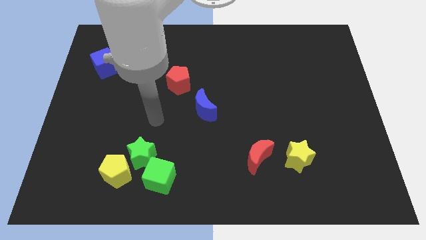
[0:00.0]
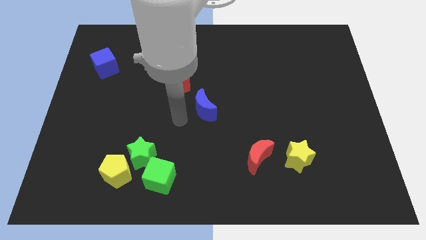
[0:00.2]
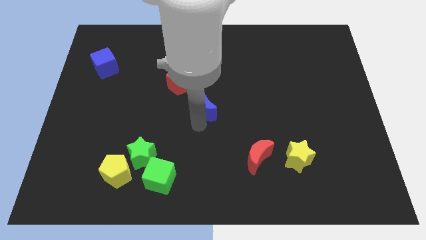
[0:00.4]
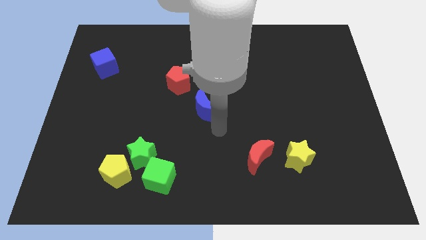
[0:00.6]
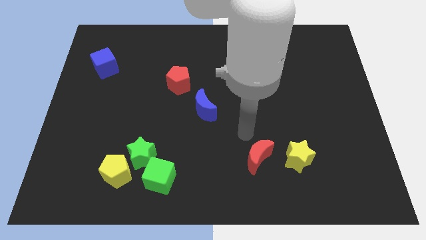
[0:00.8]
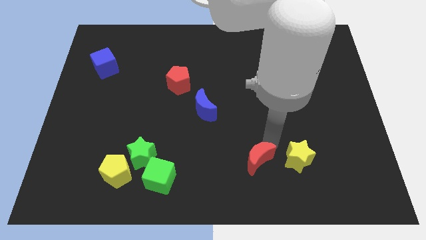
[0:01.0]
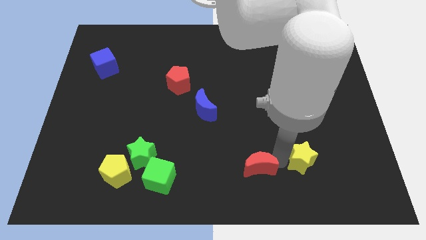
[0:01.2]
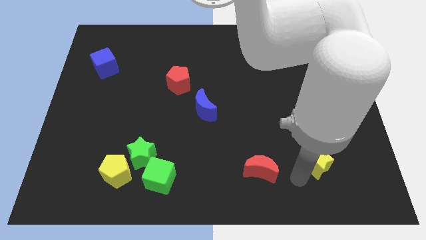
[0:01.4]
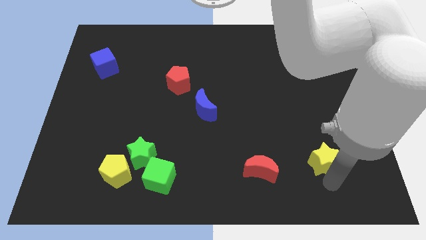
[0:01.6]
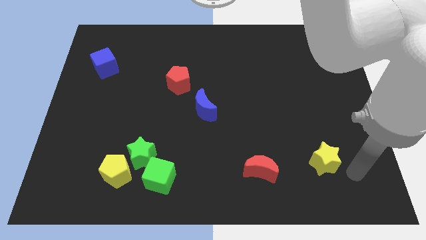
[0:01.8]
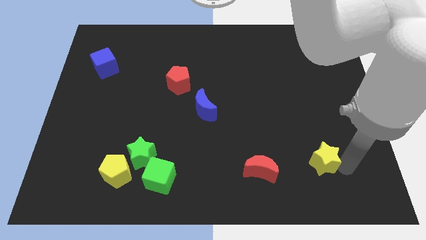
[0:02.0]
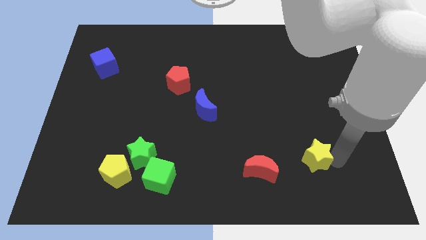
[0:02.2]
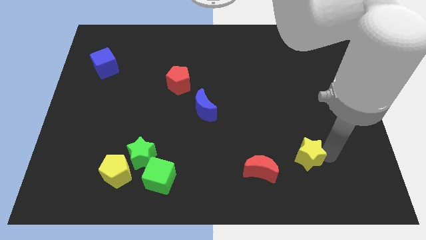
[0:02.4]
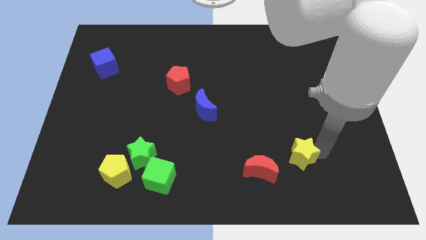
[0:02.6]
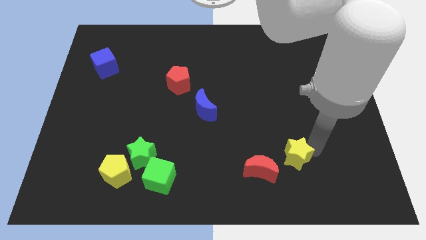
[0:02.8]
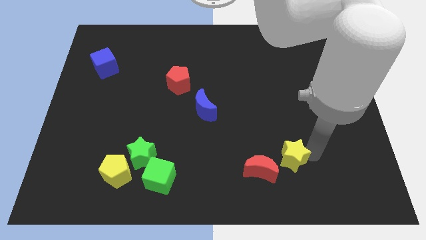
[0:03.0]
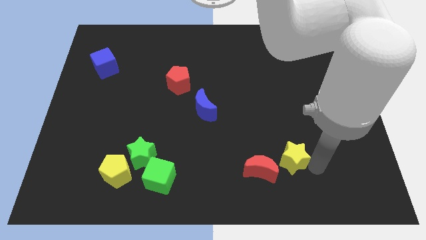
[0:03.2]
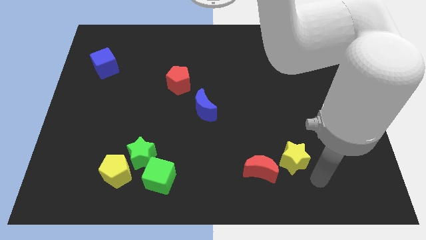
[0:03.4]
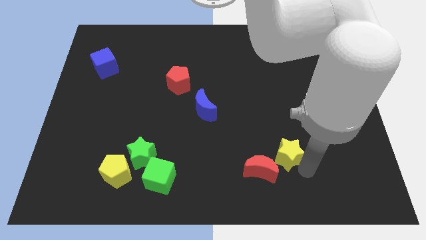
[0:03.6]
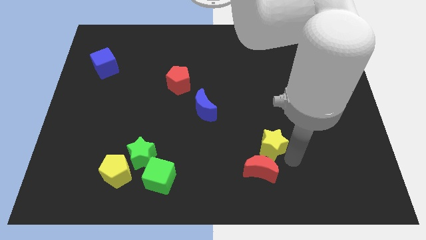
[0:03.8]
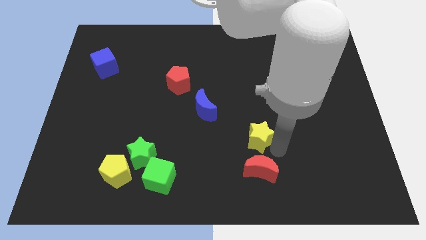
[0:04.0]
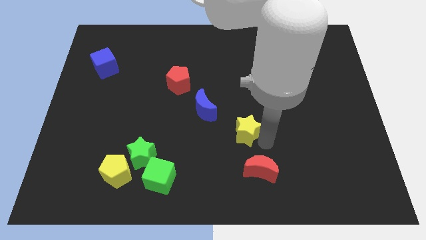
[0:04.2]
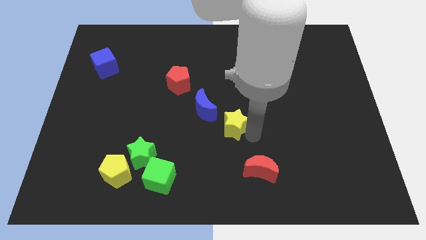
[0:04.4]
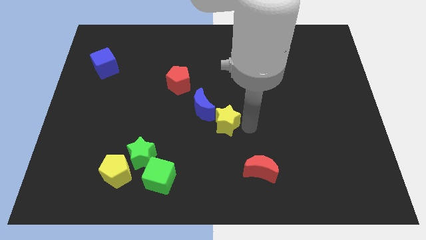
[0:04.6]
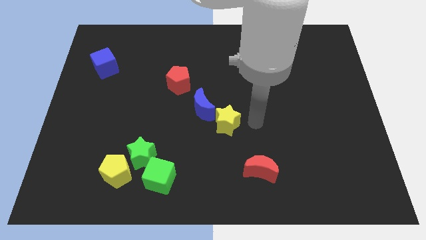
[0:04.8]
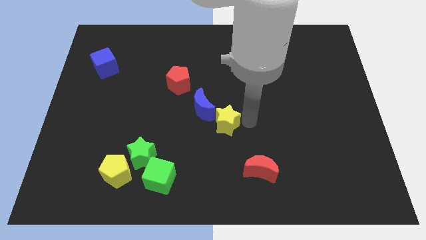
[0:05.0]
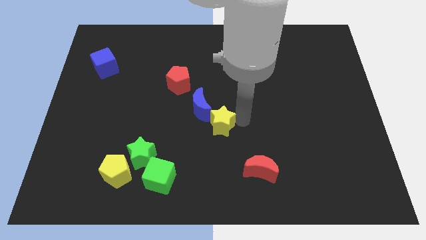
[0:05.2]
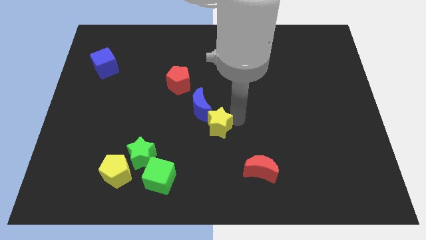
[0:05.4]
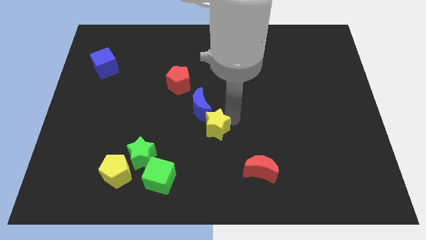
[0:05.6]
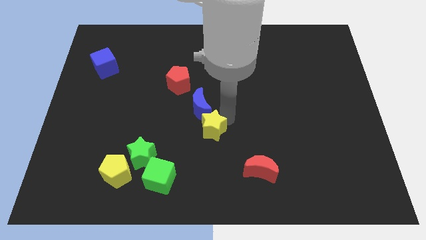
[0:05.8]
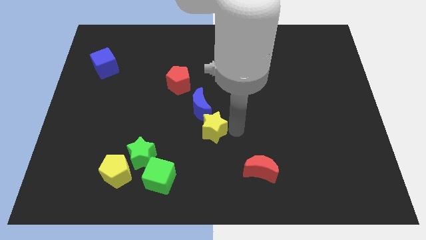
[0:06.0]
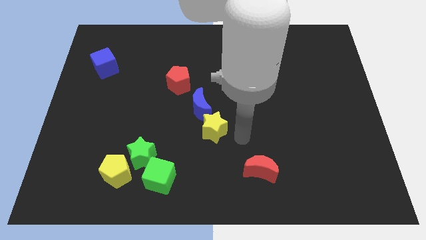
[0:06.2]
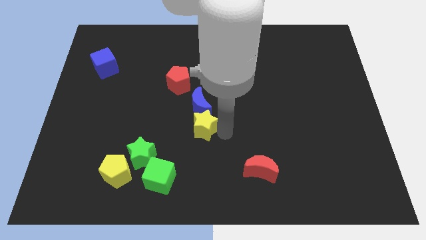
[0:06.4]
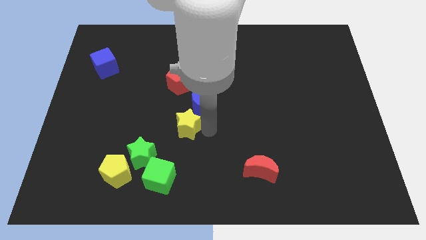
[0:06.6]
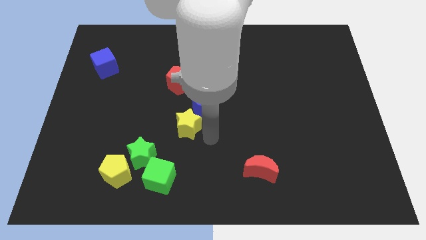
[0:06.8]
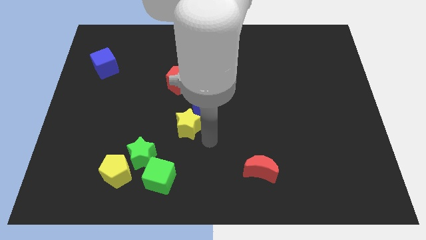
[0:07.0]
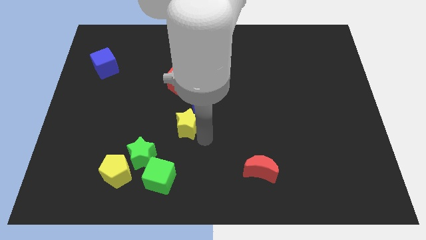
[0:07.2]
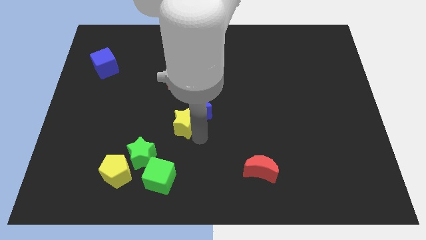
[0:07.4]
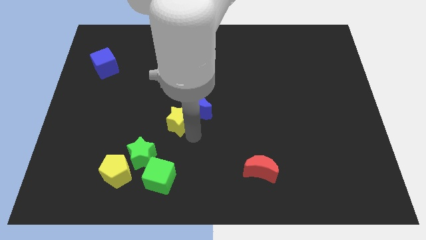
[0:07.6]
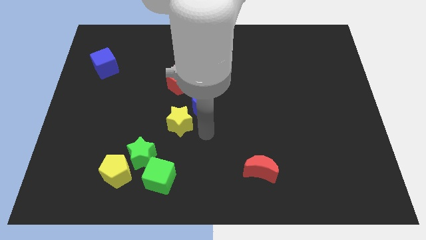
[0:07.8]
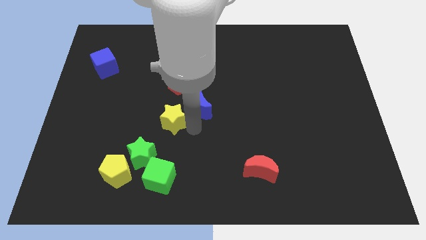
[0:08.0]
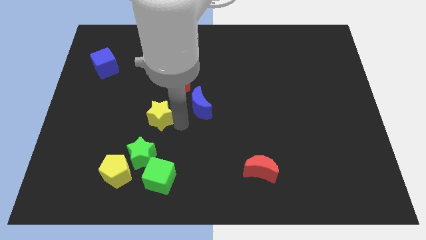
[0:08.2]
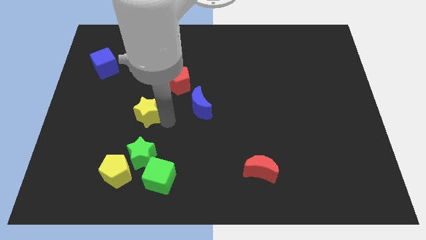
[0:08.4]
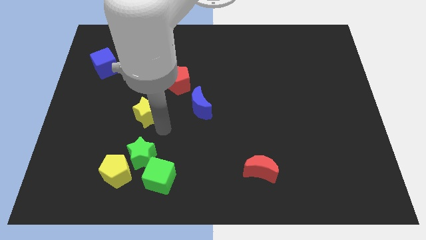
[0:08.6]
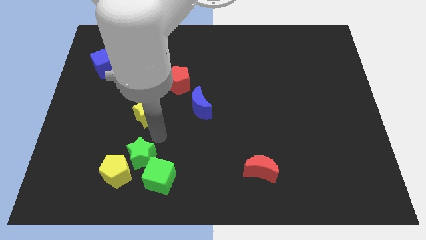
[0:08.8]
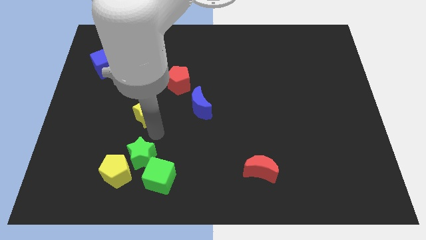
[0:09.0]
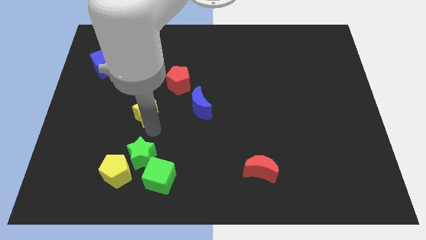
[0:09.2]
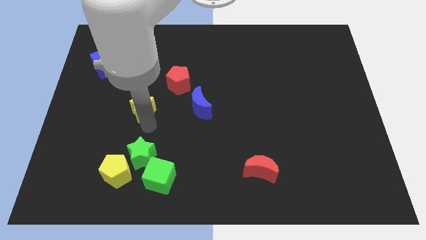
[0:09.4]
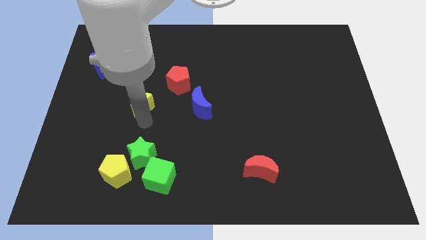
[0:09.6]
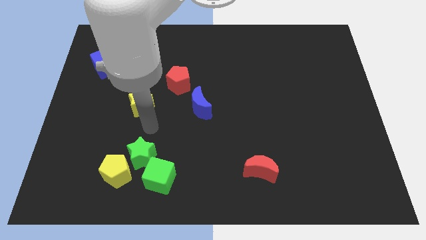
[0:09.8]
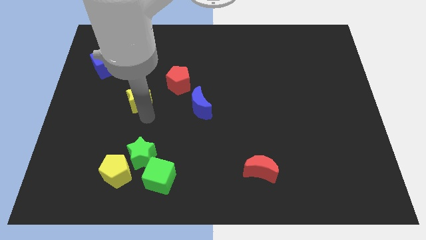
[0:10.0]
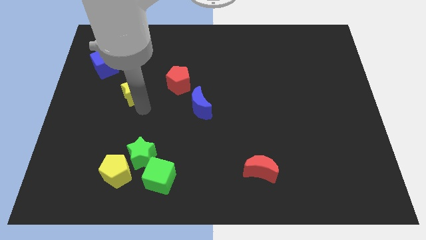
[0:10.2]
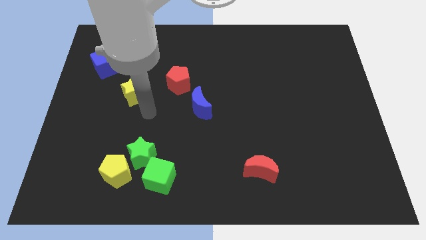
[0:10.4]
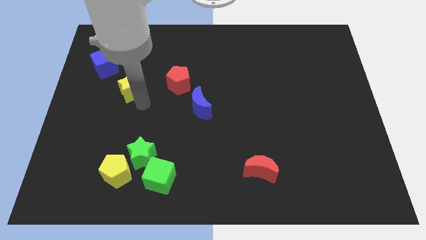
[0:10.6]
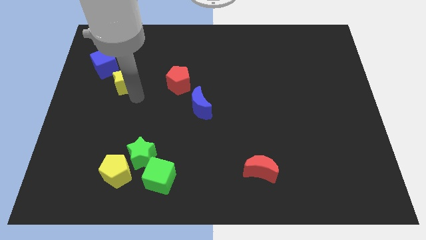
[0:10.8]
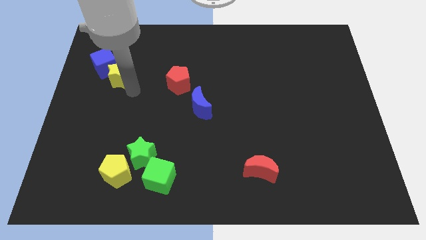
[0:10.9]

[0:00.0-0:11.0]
move the yellow star next to the blue cube

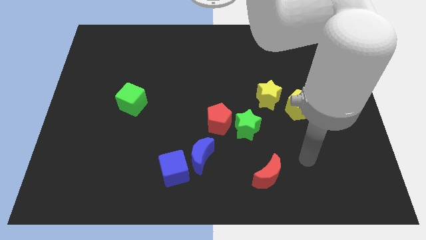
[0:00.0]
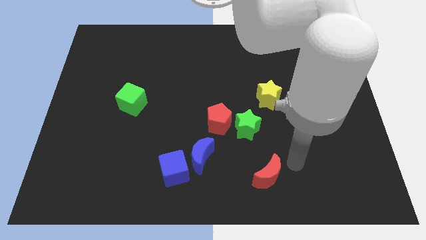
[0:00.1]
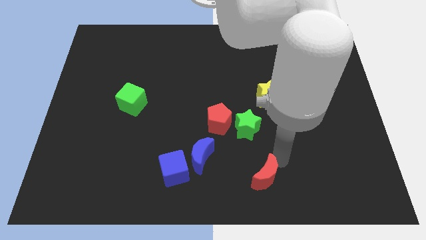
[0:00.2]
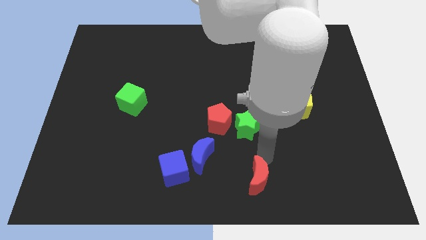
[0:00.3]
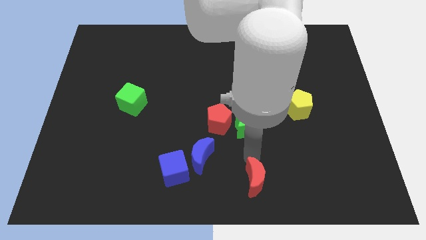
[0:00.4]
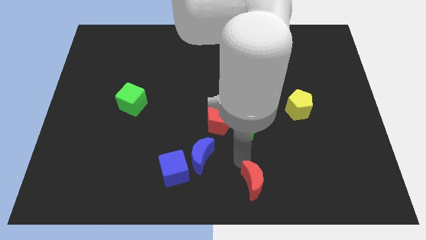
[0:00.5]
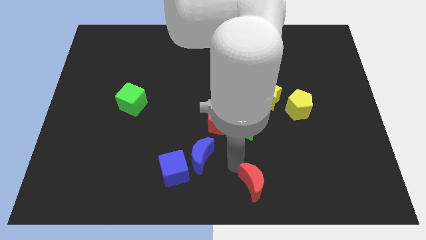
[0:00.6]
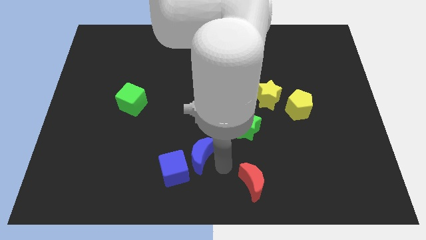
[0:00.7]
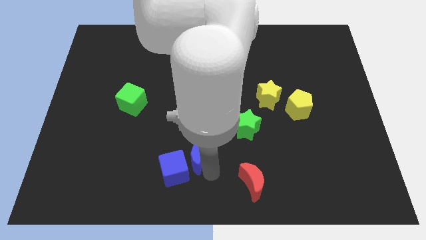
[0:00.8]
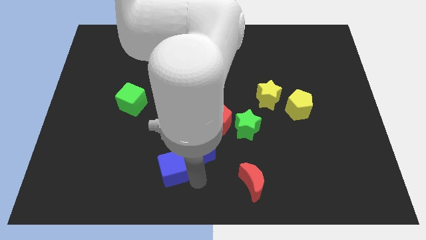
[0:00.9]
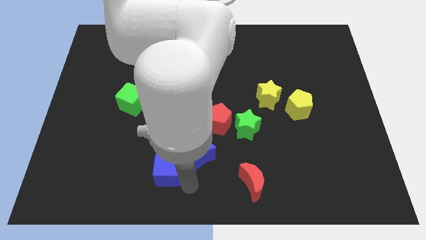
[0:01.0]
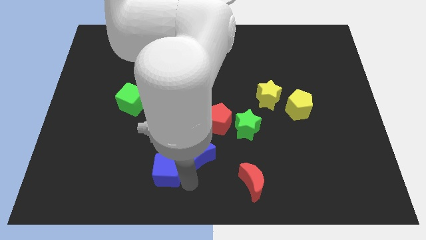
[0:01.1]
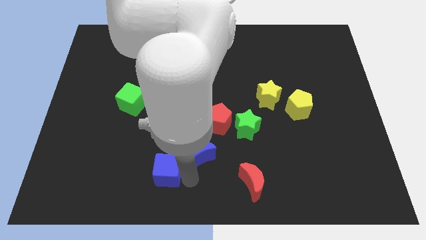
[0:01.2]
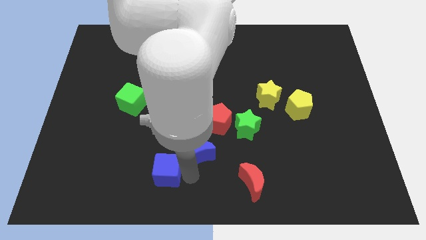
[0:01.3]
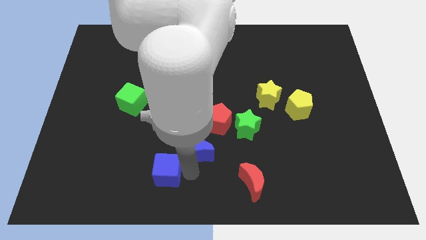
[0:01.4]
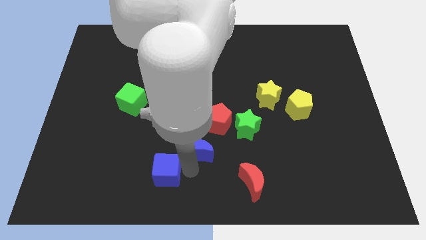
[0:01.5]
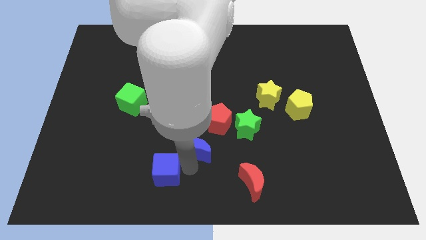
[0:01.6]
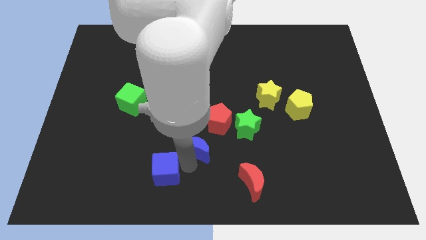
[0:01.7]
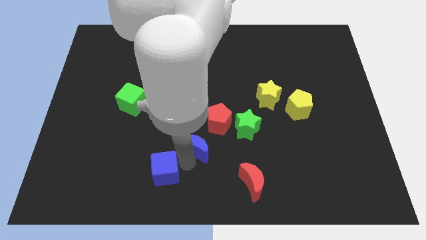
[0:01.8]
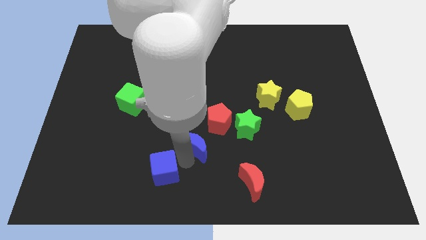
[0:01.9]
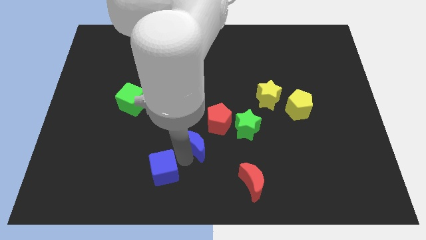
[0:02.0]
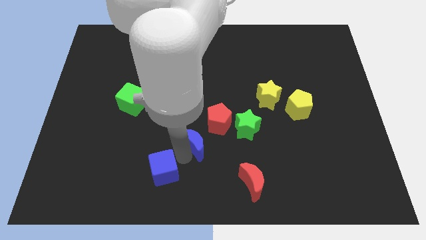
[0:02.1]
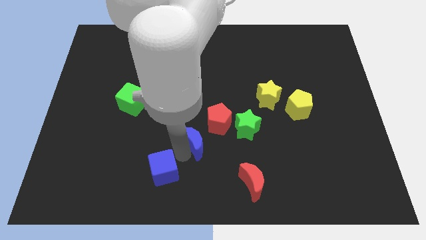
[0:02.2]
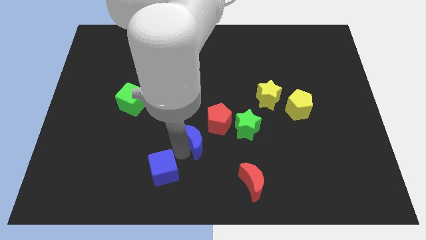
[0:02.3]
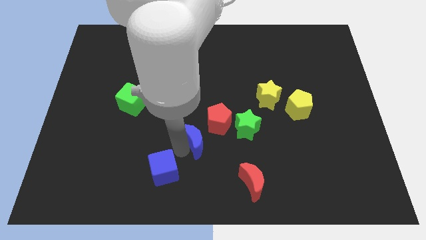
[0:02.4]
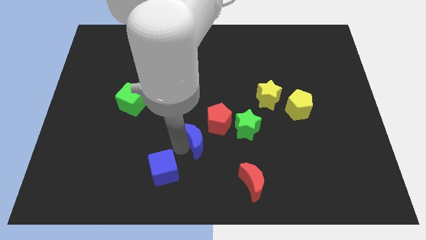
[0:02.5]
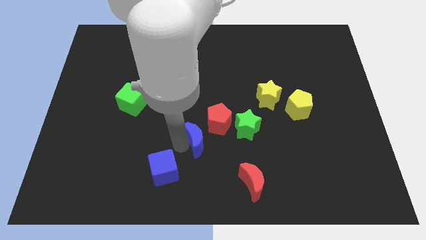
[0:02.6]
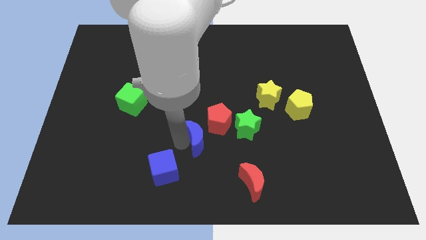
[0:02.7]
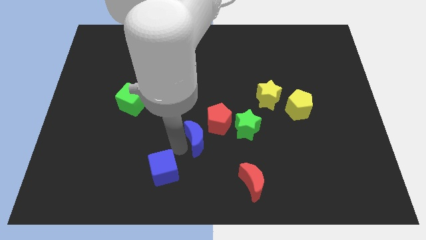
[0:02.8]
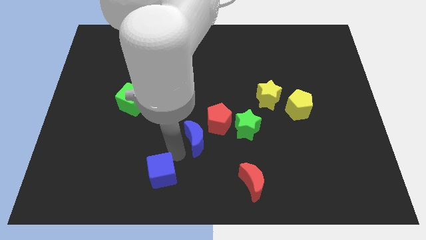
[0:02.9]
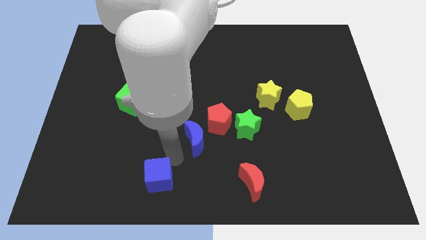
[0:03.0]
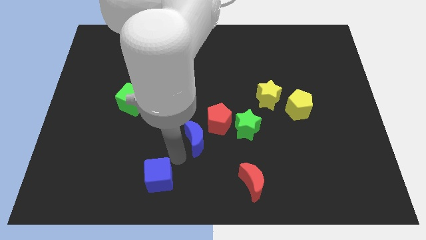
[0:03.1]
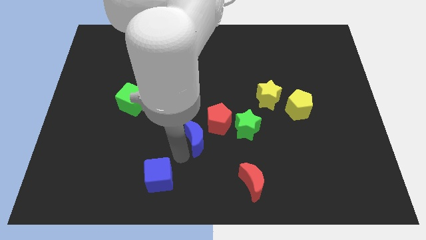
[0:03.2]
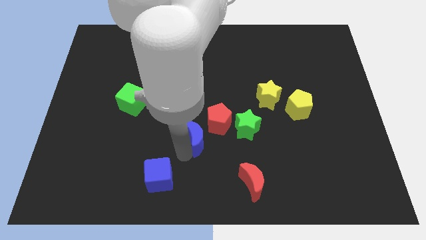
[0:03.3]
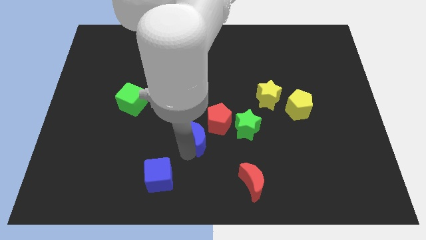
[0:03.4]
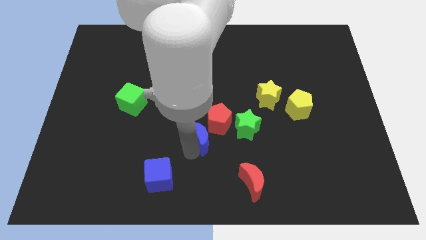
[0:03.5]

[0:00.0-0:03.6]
push the blue moon towards the red pentagon
